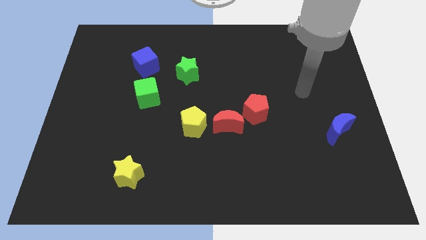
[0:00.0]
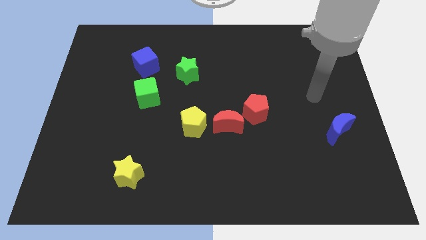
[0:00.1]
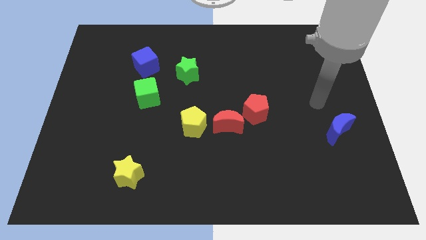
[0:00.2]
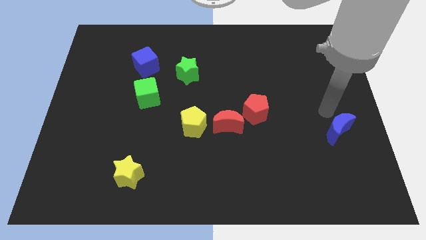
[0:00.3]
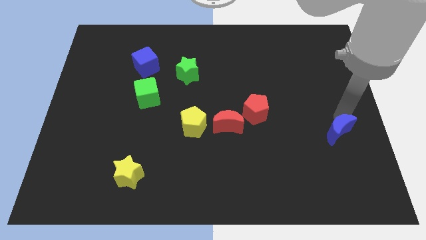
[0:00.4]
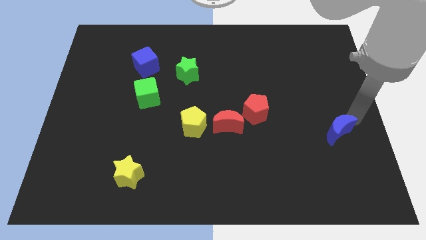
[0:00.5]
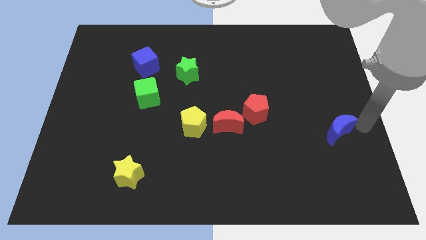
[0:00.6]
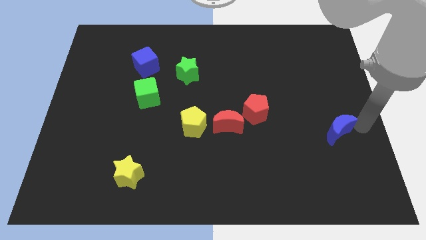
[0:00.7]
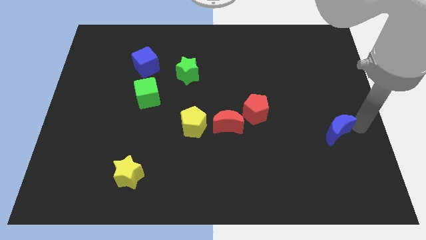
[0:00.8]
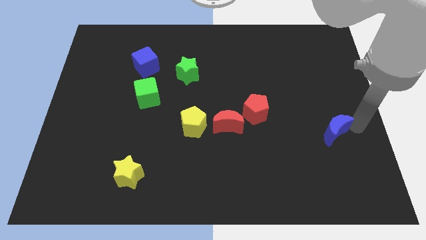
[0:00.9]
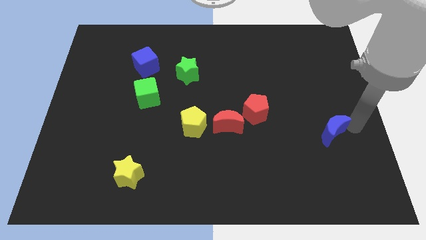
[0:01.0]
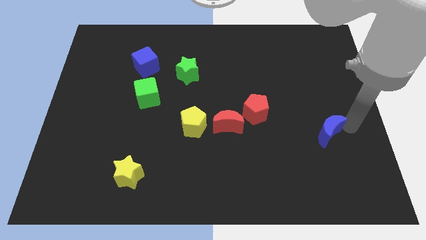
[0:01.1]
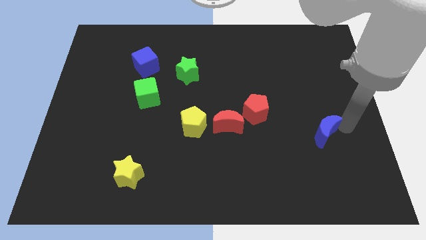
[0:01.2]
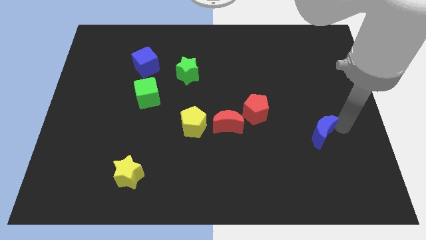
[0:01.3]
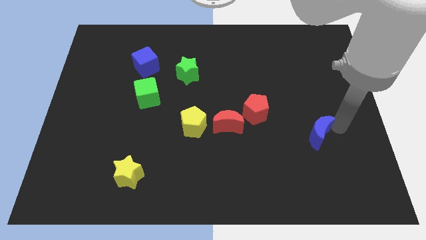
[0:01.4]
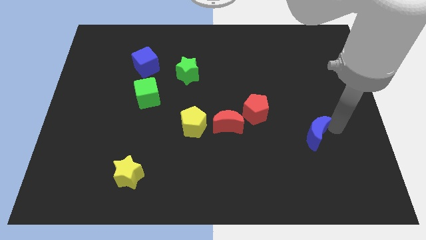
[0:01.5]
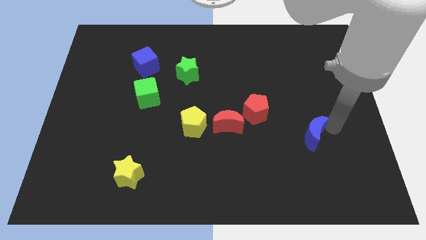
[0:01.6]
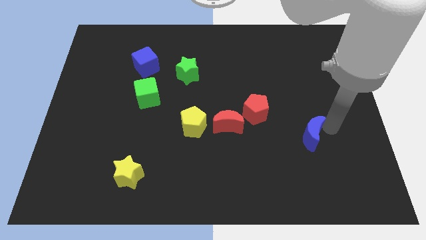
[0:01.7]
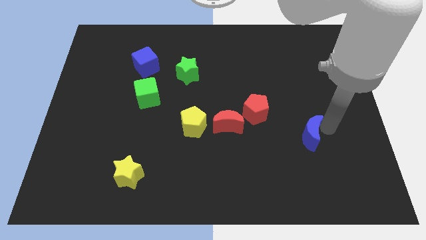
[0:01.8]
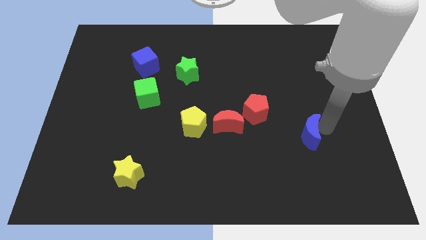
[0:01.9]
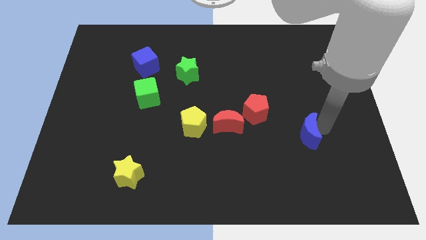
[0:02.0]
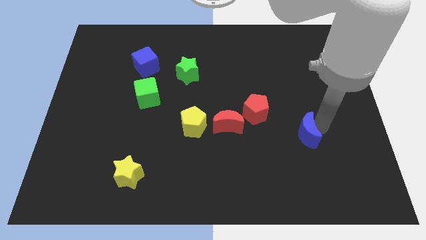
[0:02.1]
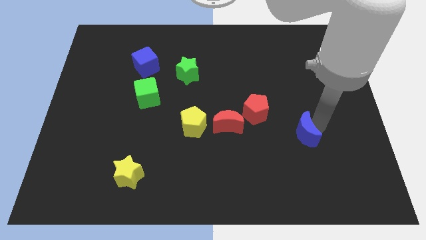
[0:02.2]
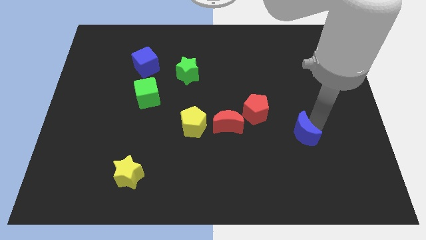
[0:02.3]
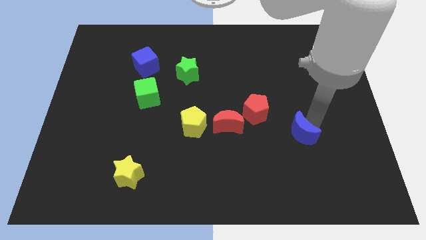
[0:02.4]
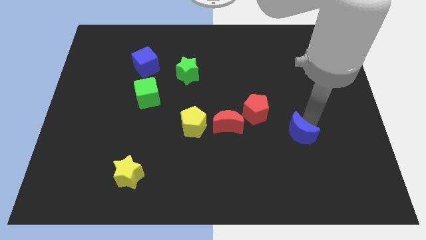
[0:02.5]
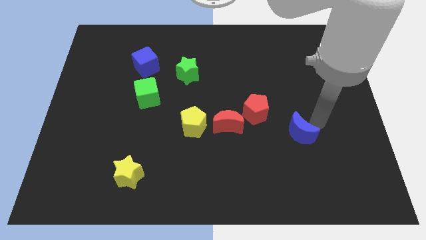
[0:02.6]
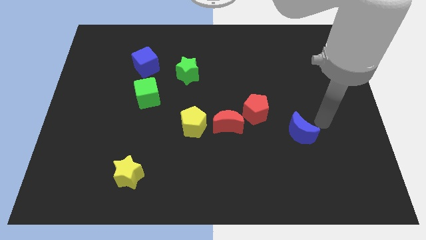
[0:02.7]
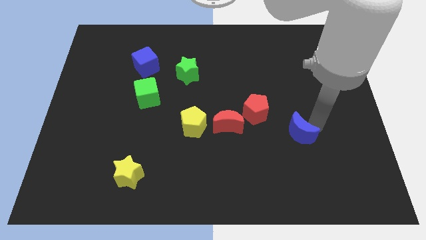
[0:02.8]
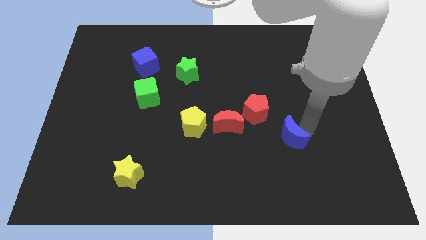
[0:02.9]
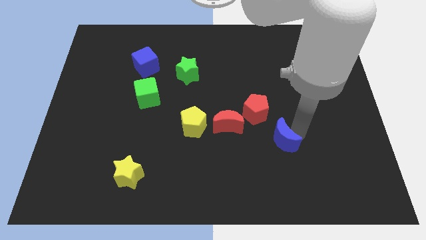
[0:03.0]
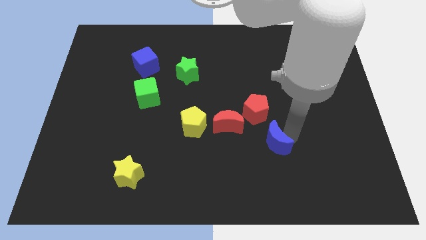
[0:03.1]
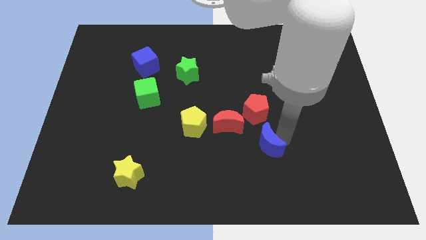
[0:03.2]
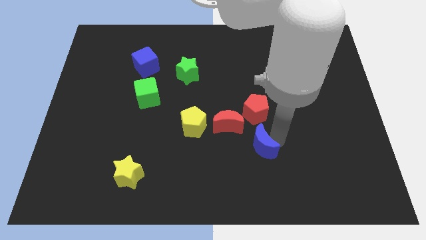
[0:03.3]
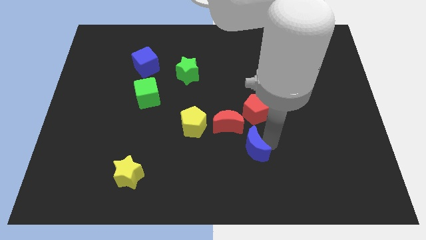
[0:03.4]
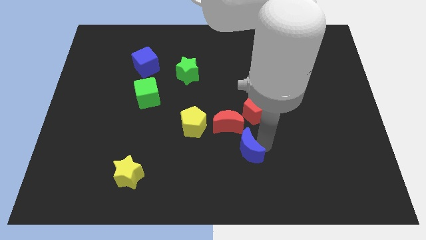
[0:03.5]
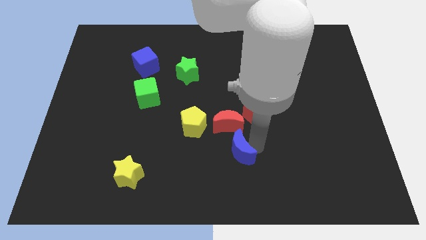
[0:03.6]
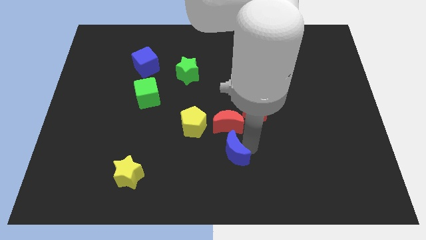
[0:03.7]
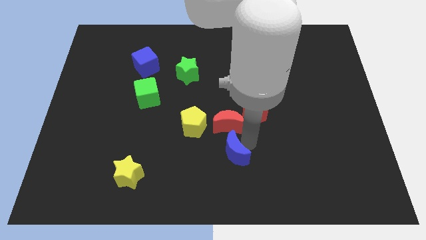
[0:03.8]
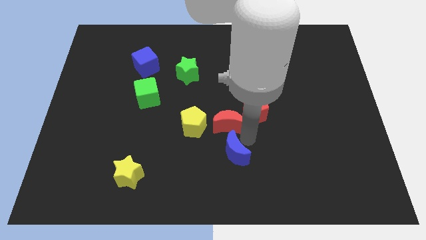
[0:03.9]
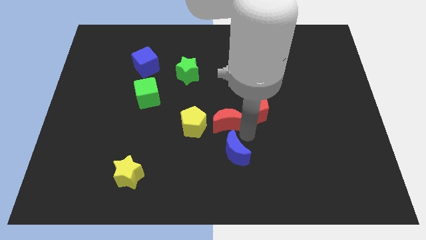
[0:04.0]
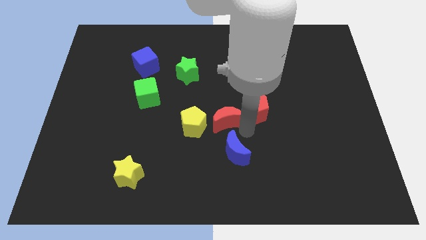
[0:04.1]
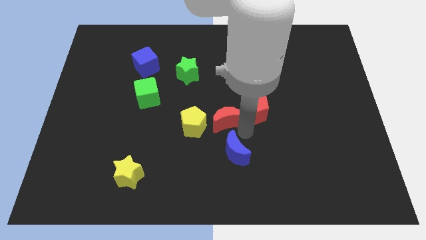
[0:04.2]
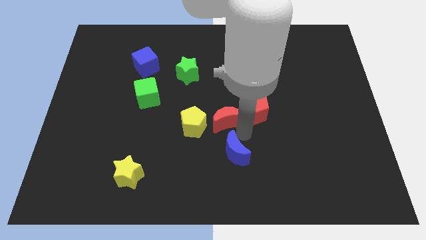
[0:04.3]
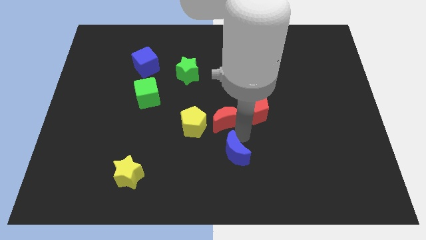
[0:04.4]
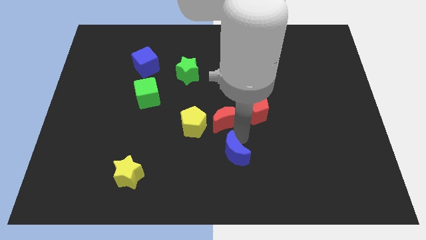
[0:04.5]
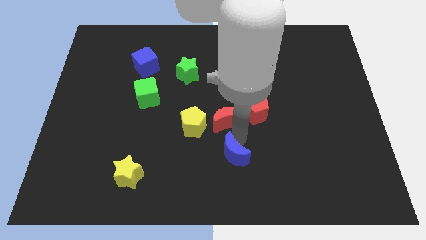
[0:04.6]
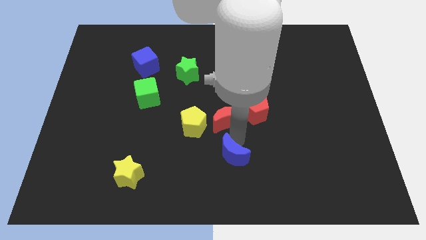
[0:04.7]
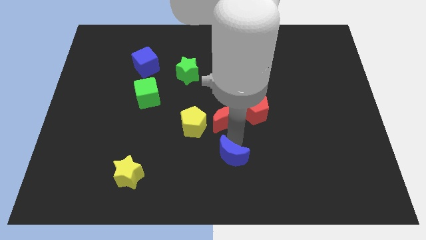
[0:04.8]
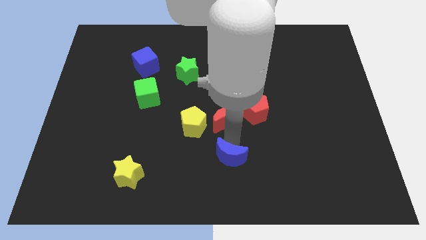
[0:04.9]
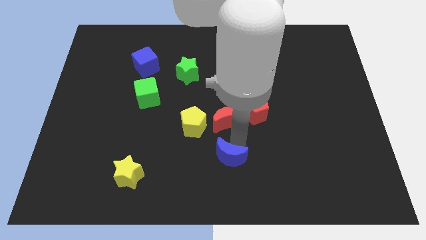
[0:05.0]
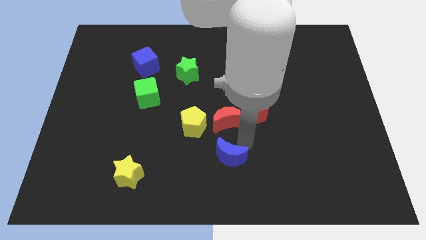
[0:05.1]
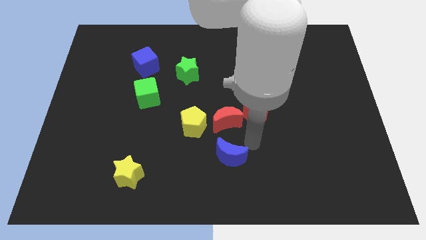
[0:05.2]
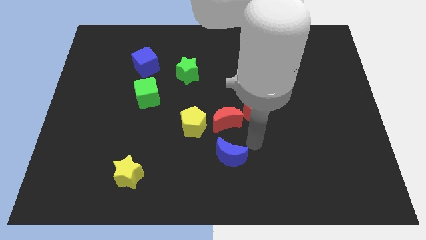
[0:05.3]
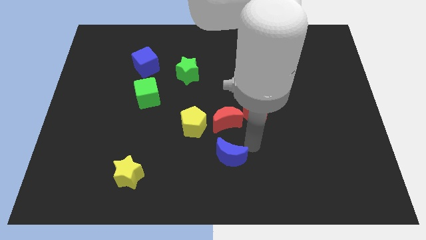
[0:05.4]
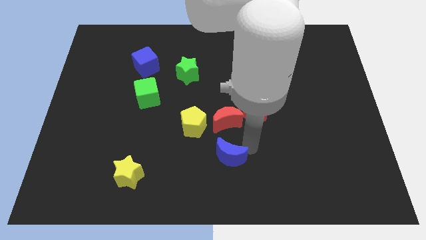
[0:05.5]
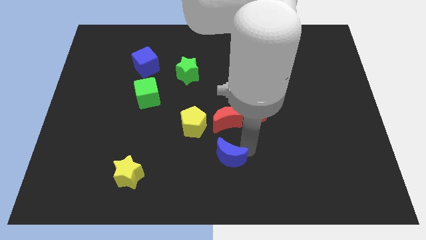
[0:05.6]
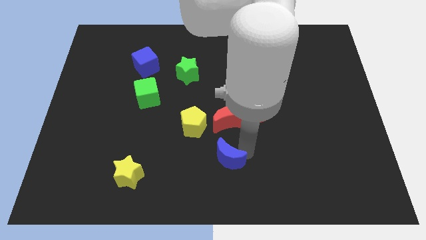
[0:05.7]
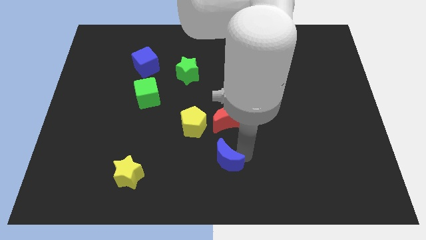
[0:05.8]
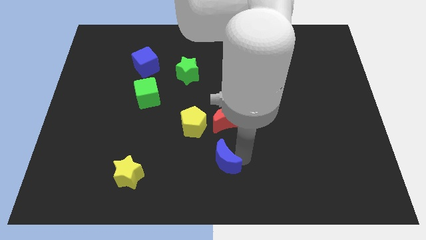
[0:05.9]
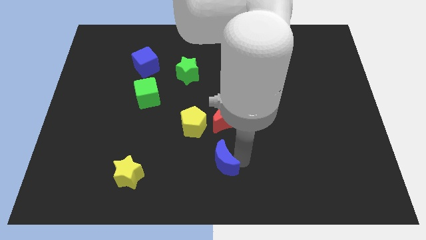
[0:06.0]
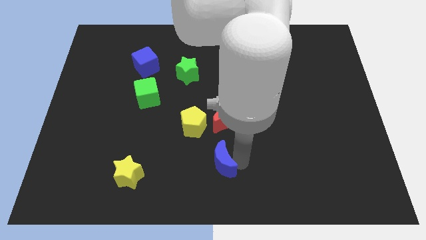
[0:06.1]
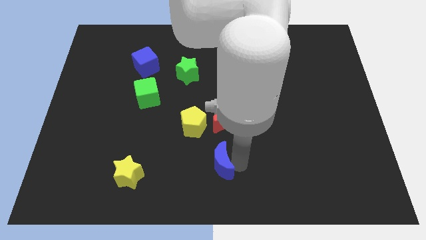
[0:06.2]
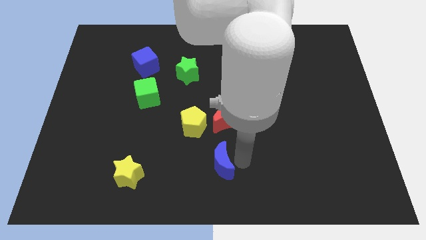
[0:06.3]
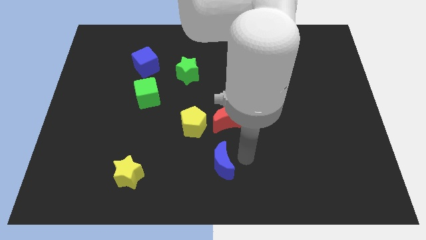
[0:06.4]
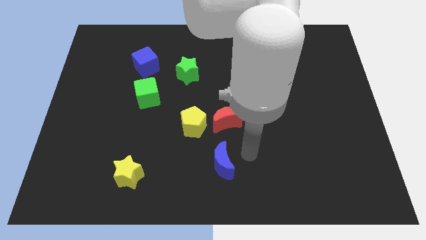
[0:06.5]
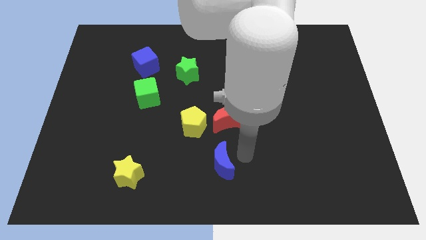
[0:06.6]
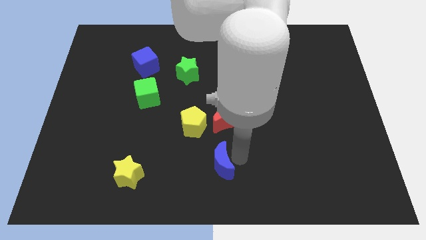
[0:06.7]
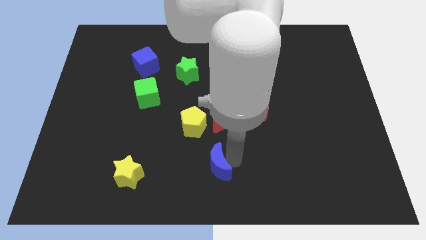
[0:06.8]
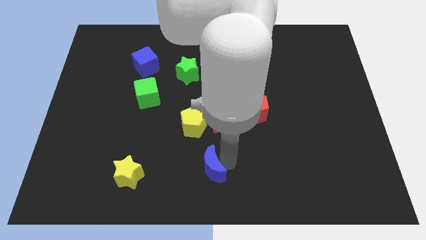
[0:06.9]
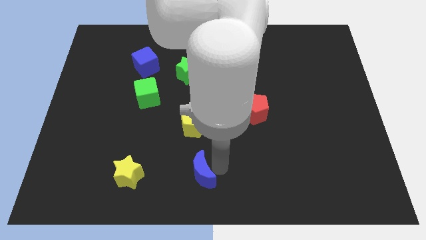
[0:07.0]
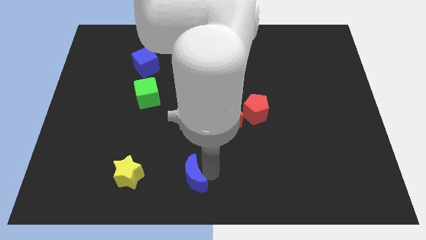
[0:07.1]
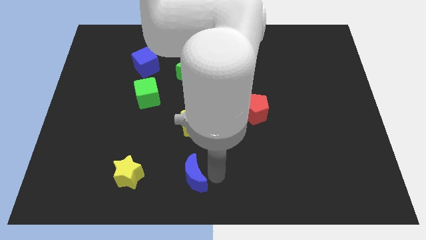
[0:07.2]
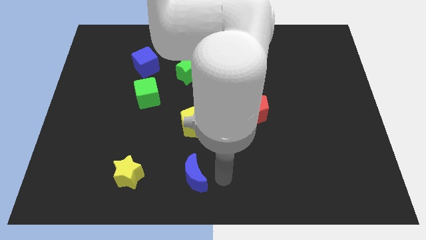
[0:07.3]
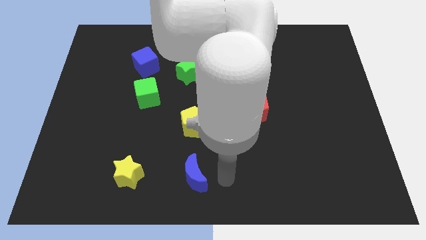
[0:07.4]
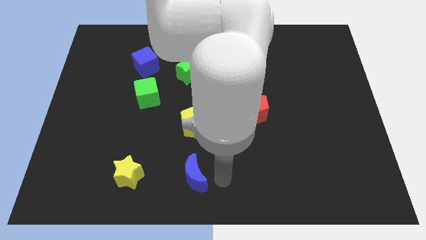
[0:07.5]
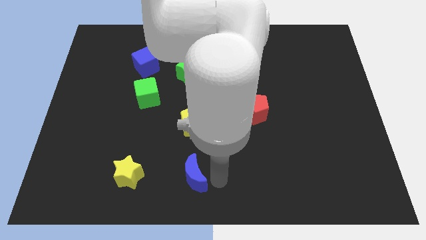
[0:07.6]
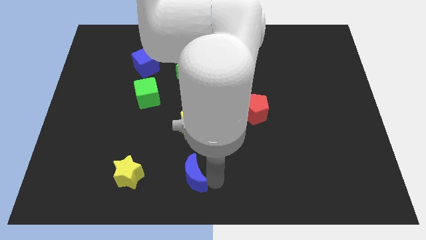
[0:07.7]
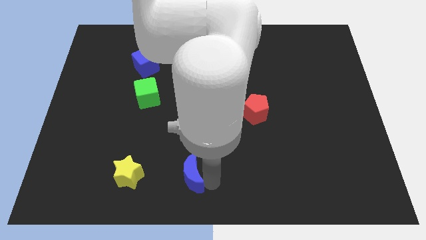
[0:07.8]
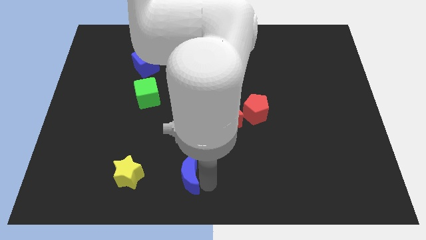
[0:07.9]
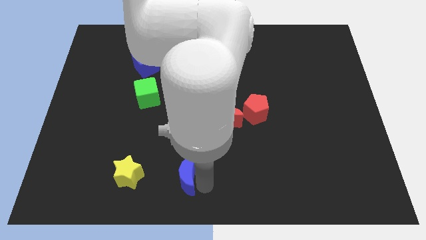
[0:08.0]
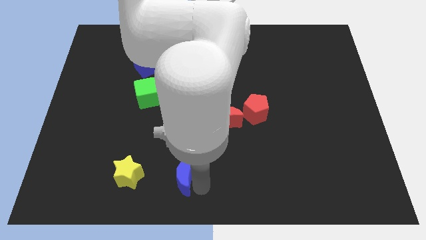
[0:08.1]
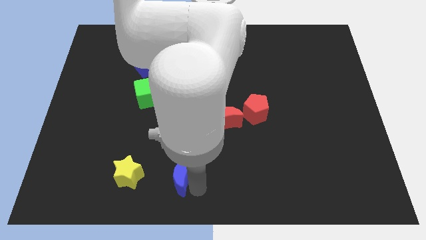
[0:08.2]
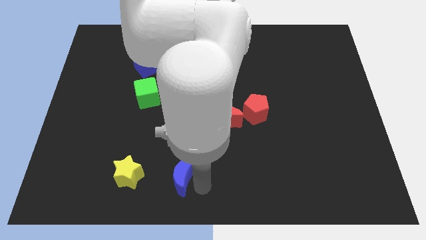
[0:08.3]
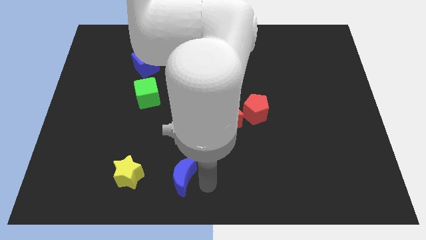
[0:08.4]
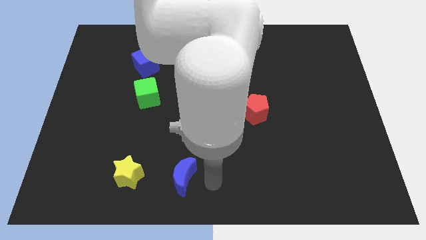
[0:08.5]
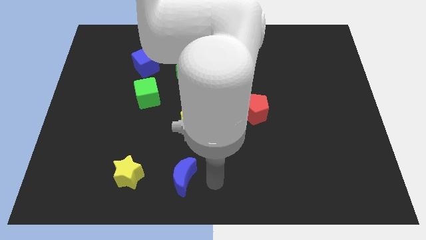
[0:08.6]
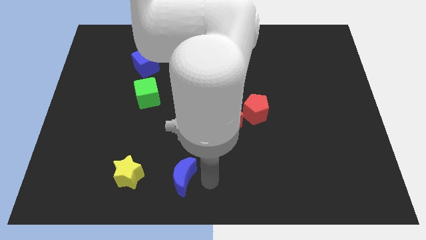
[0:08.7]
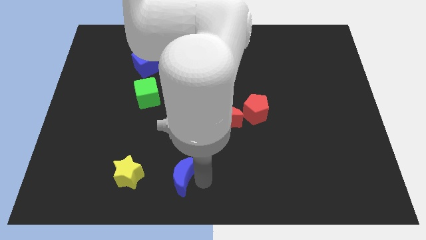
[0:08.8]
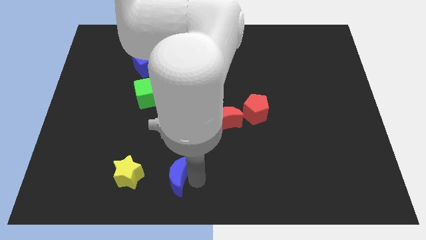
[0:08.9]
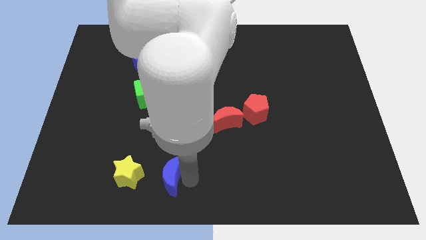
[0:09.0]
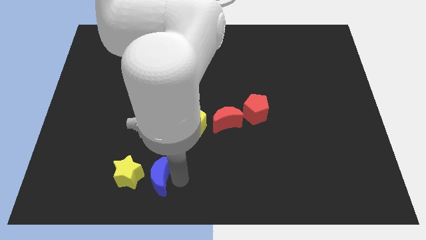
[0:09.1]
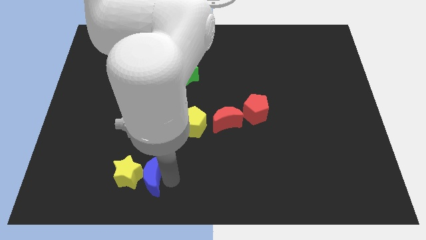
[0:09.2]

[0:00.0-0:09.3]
slide the blue moon next to the yellow star
